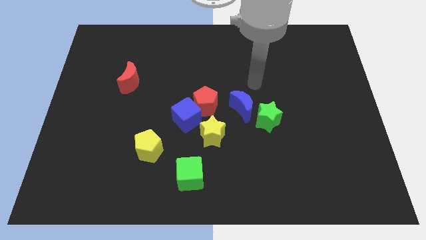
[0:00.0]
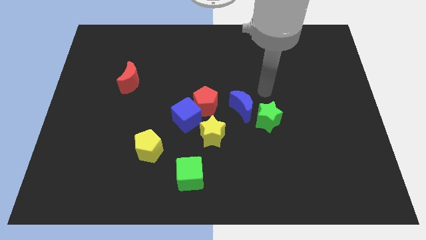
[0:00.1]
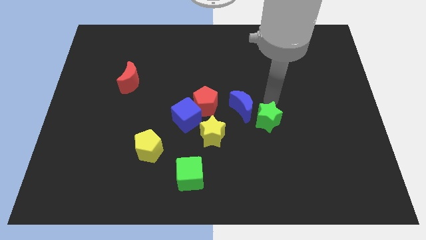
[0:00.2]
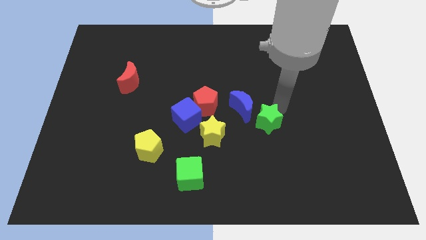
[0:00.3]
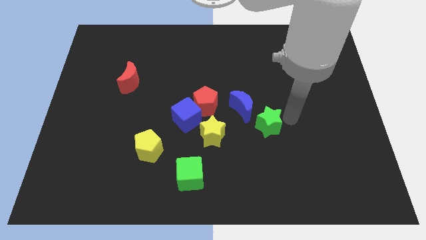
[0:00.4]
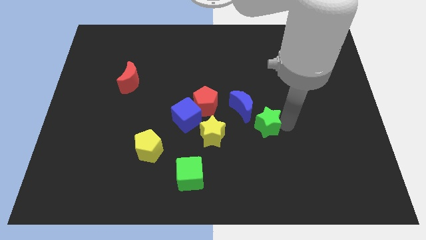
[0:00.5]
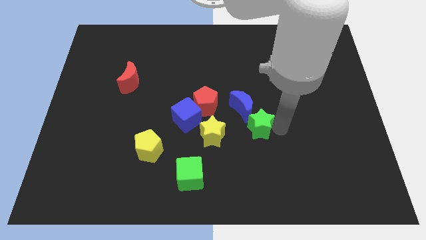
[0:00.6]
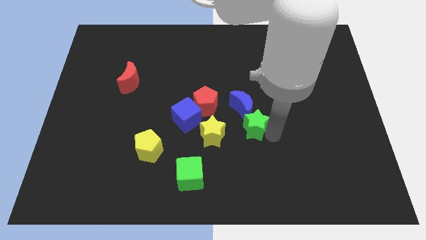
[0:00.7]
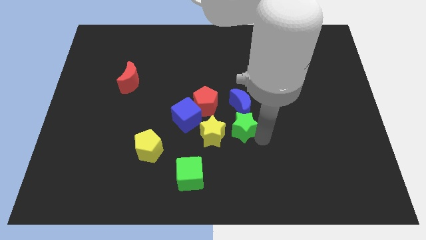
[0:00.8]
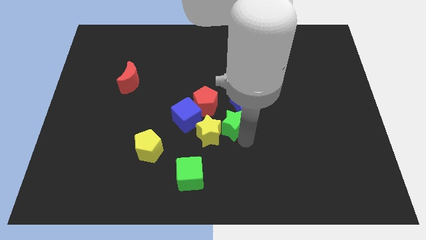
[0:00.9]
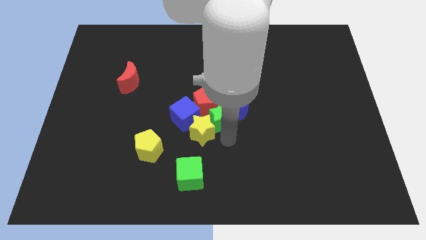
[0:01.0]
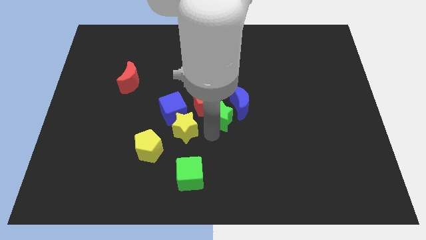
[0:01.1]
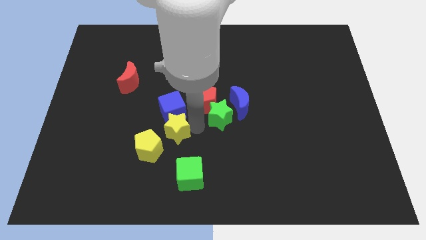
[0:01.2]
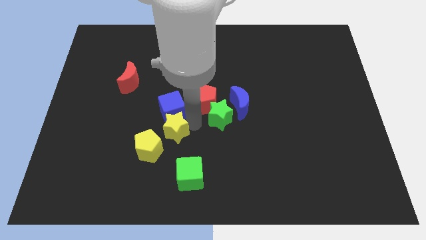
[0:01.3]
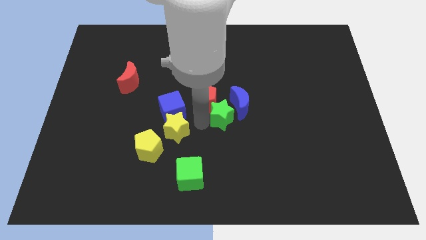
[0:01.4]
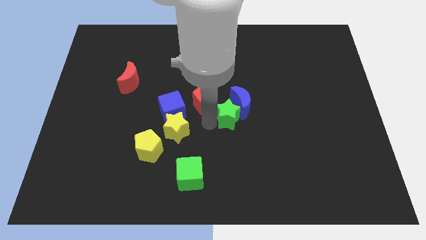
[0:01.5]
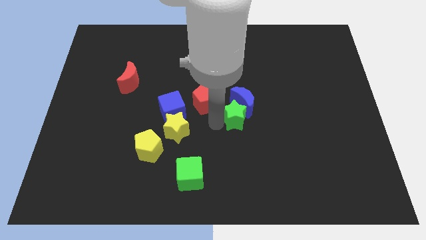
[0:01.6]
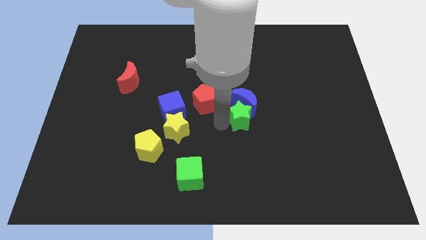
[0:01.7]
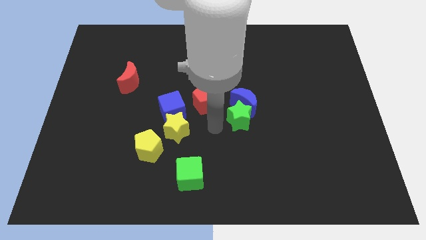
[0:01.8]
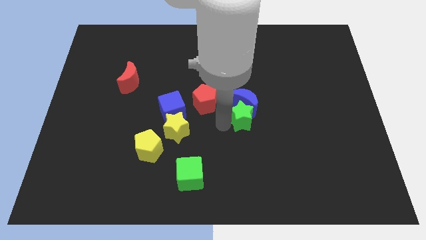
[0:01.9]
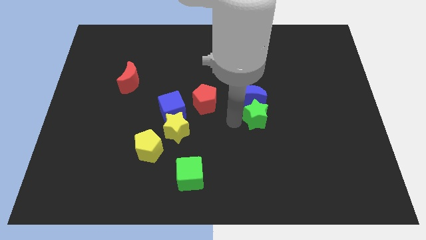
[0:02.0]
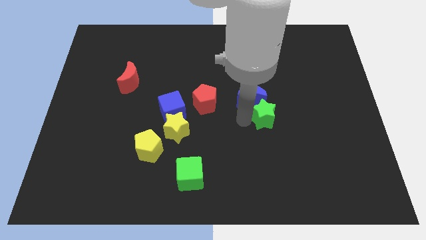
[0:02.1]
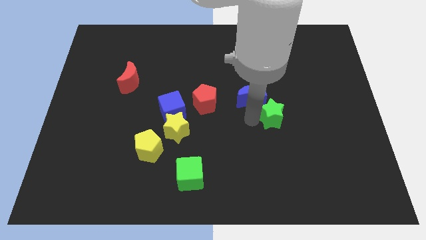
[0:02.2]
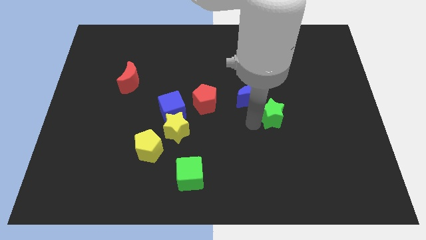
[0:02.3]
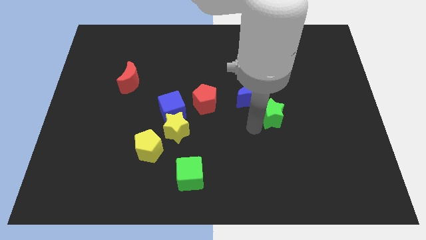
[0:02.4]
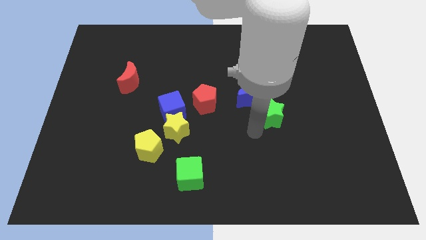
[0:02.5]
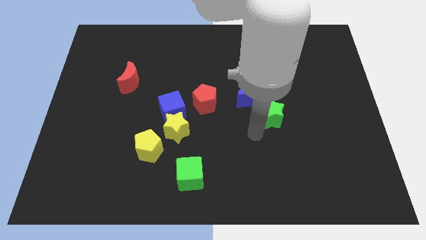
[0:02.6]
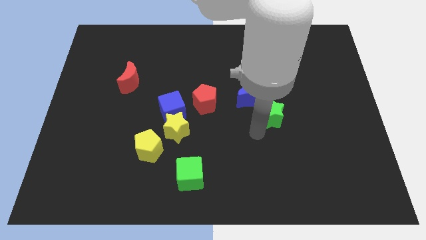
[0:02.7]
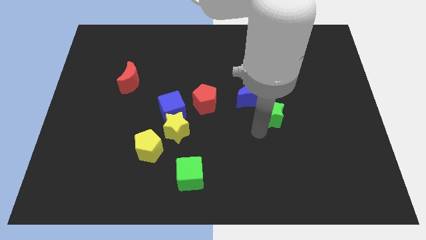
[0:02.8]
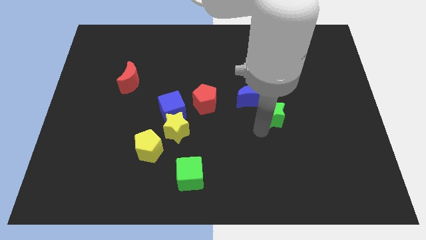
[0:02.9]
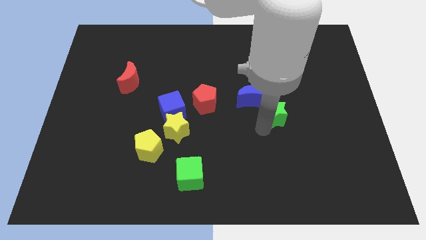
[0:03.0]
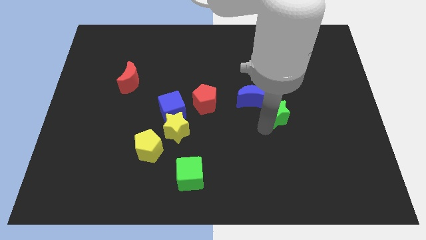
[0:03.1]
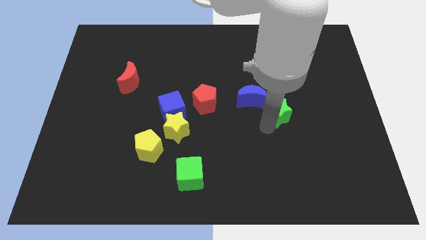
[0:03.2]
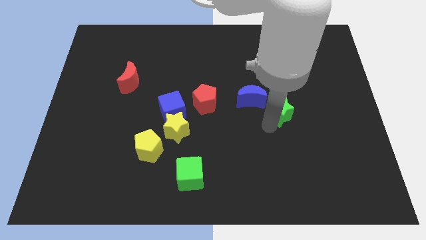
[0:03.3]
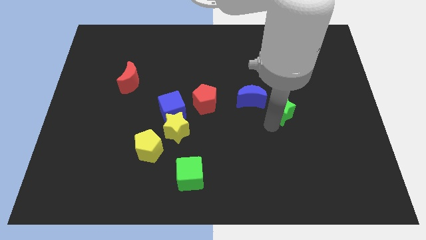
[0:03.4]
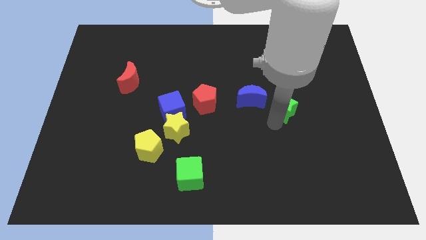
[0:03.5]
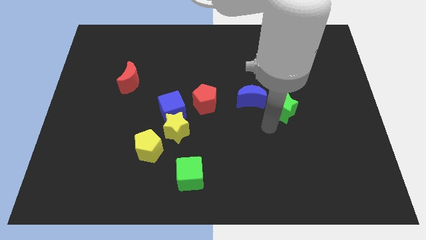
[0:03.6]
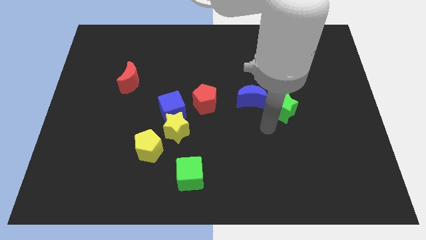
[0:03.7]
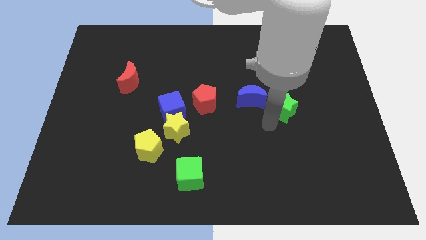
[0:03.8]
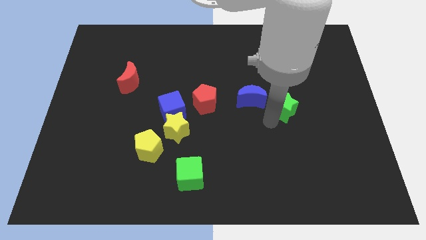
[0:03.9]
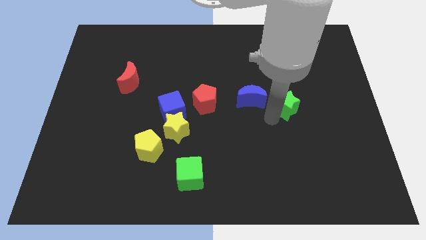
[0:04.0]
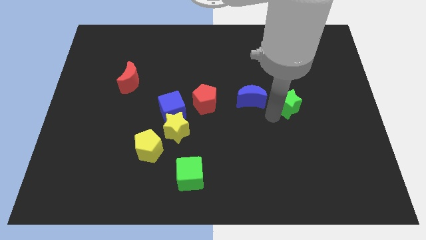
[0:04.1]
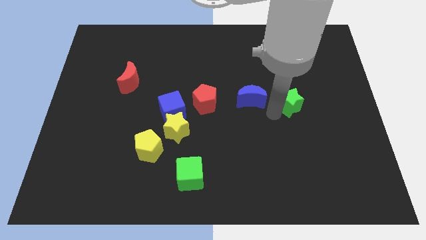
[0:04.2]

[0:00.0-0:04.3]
slide the green star up and right a little bit

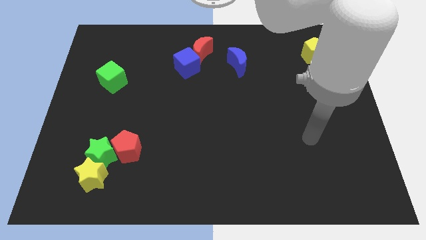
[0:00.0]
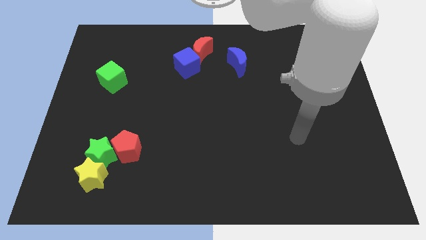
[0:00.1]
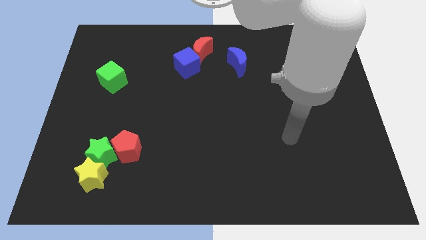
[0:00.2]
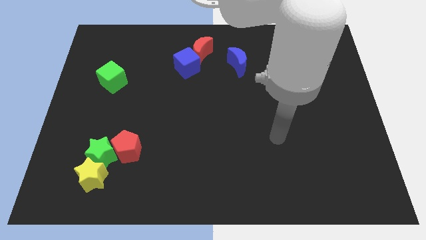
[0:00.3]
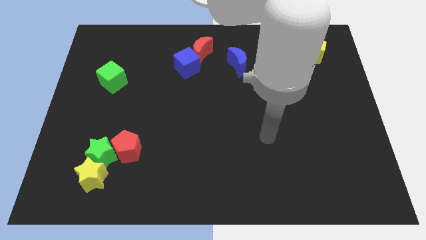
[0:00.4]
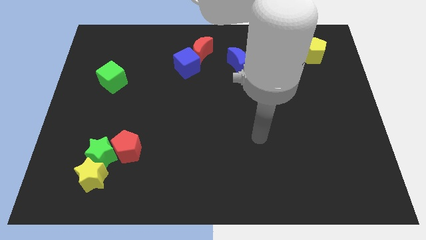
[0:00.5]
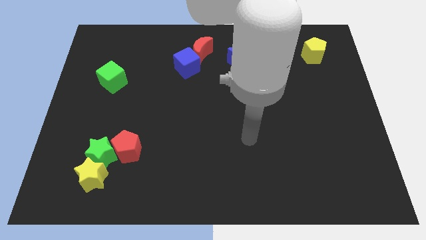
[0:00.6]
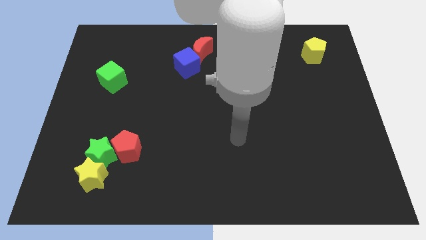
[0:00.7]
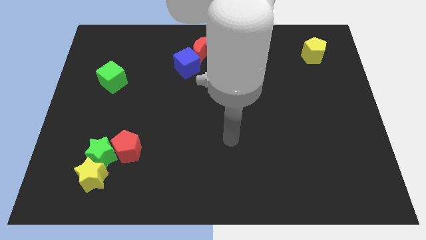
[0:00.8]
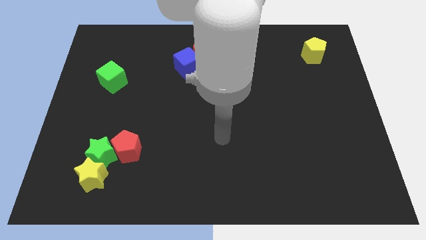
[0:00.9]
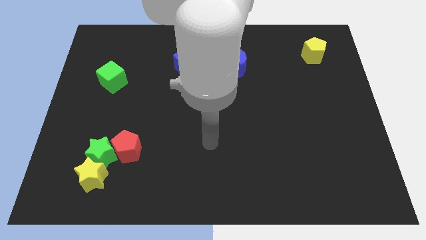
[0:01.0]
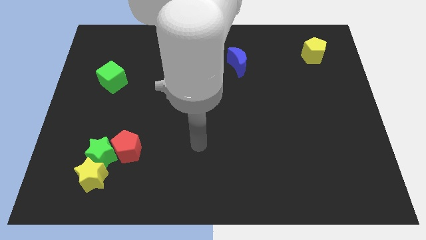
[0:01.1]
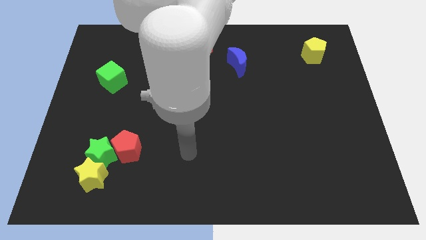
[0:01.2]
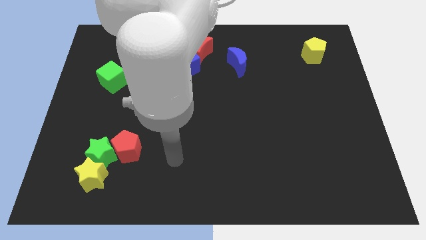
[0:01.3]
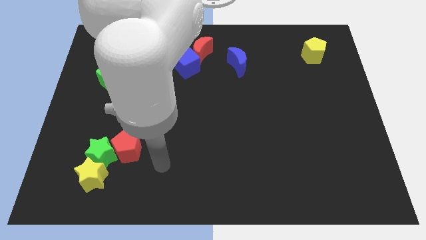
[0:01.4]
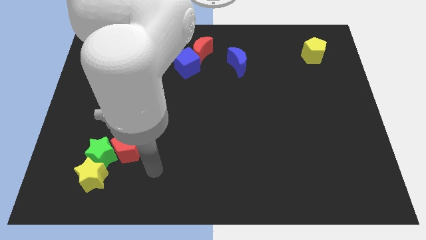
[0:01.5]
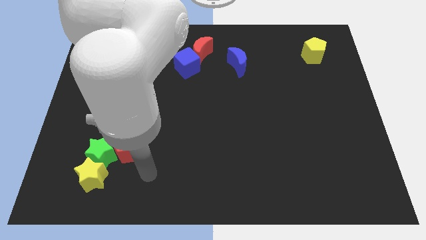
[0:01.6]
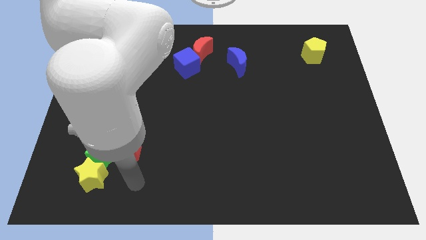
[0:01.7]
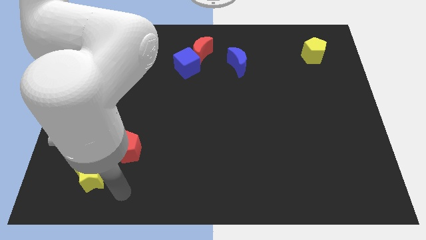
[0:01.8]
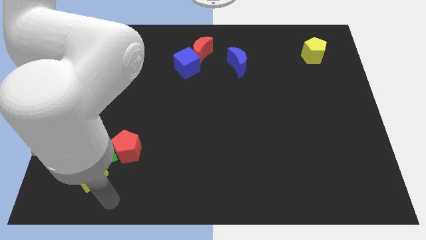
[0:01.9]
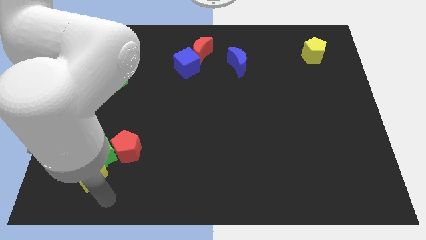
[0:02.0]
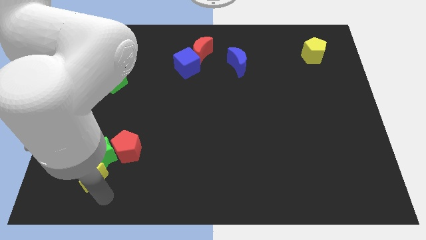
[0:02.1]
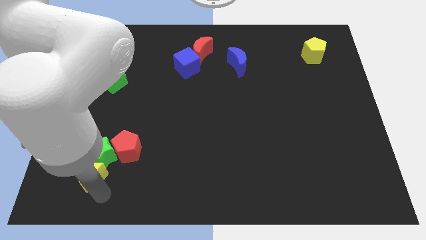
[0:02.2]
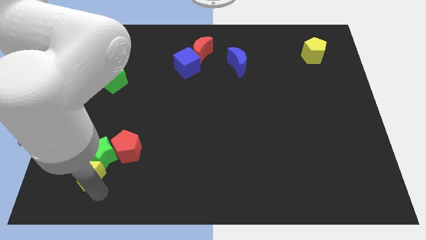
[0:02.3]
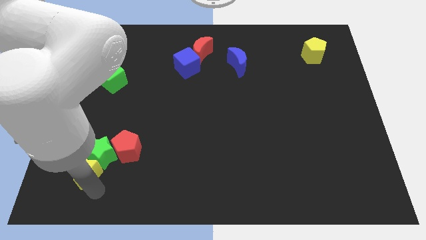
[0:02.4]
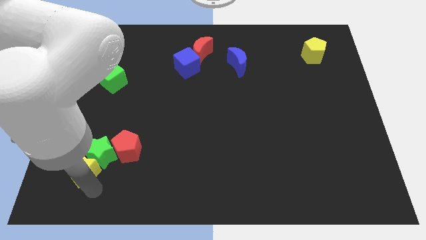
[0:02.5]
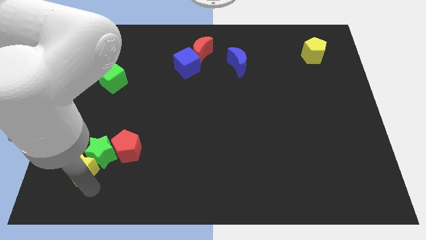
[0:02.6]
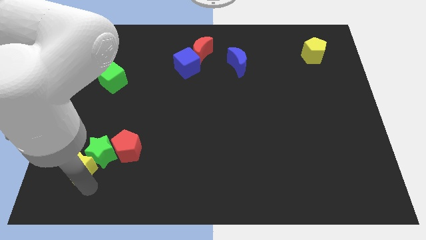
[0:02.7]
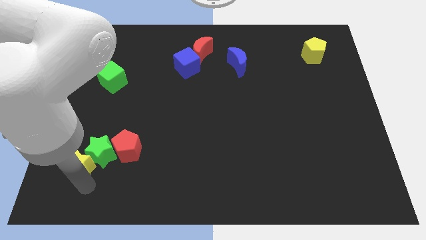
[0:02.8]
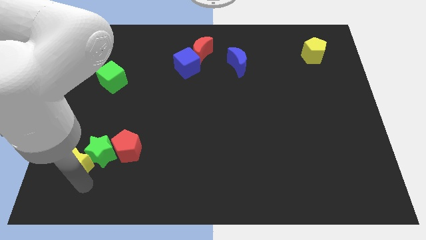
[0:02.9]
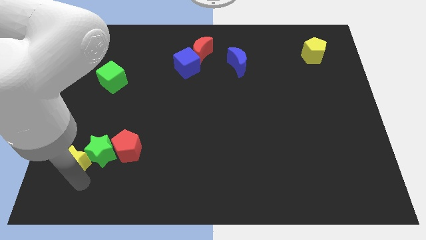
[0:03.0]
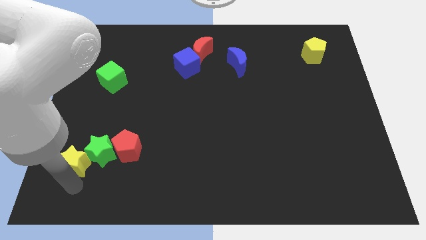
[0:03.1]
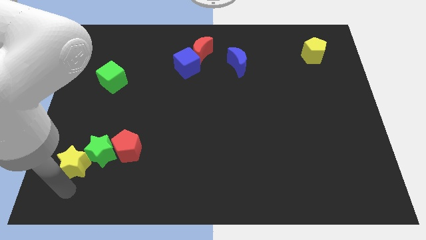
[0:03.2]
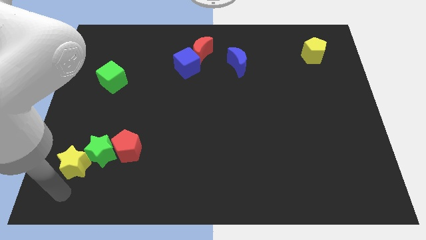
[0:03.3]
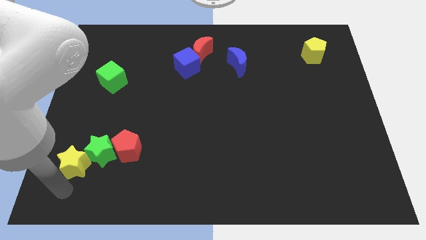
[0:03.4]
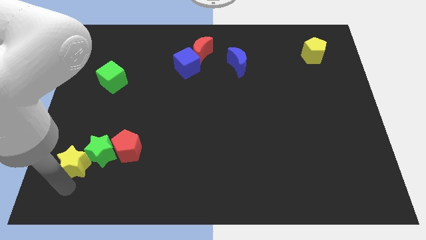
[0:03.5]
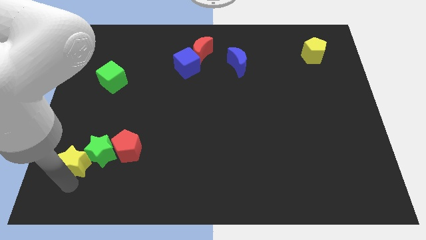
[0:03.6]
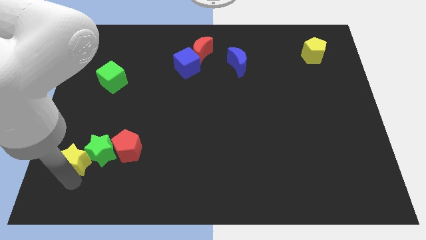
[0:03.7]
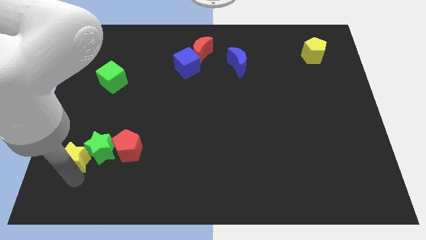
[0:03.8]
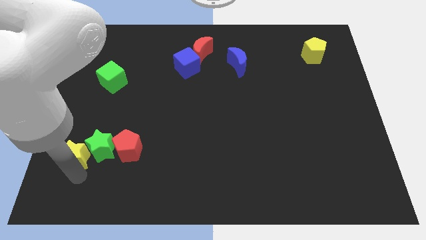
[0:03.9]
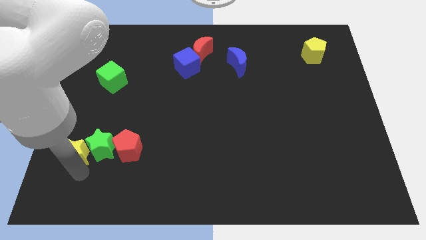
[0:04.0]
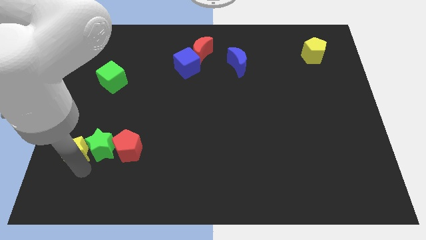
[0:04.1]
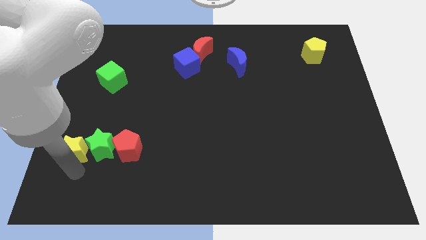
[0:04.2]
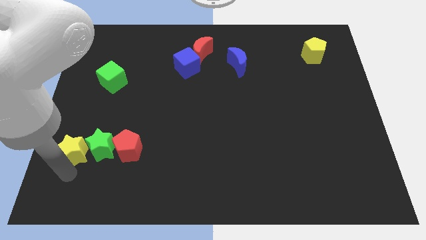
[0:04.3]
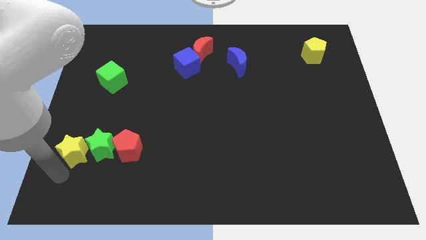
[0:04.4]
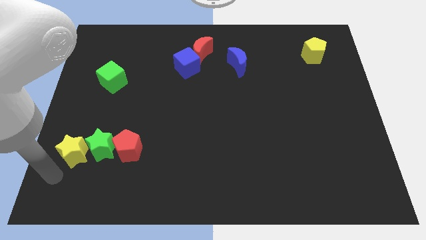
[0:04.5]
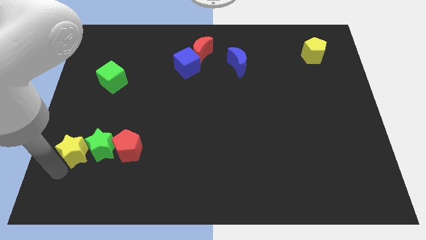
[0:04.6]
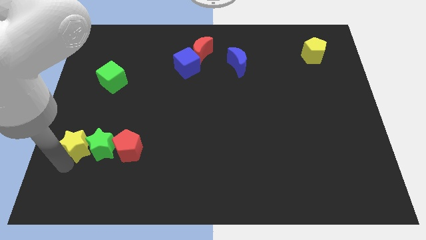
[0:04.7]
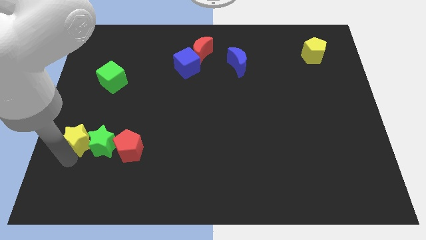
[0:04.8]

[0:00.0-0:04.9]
slide the yellow star a little up
